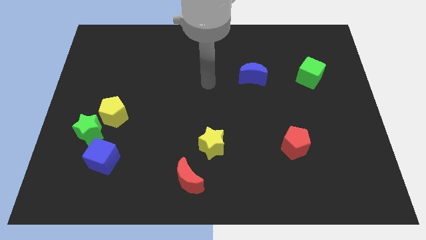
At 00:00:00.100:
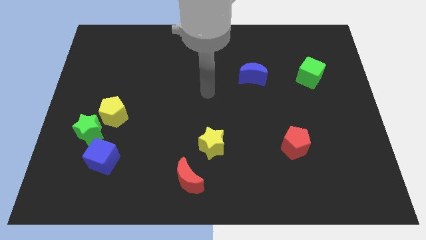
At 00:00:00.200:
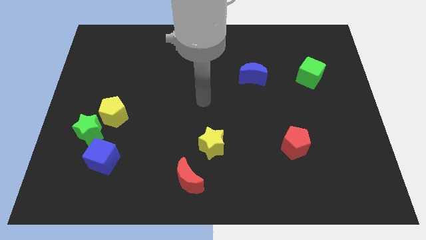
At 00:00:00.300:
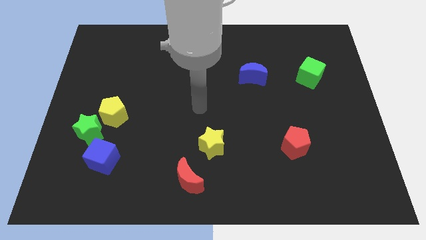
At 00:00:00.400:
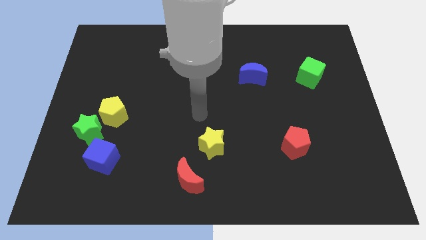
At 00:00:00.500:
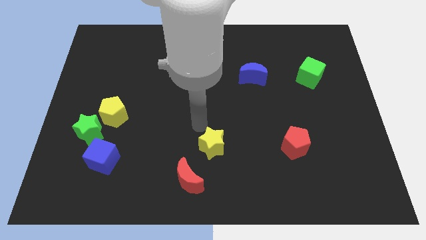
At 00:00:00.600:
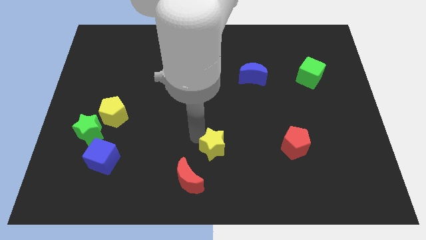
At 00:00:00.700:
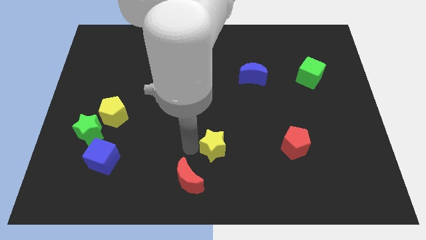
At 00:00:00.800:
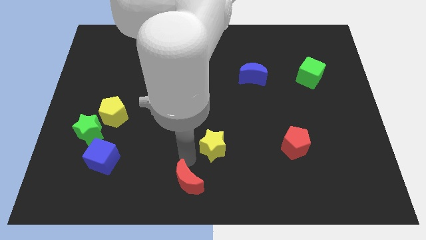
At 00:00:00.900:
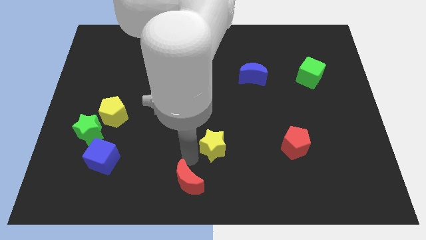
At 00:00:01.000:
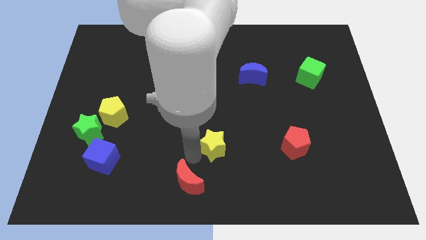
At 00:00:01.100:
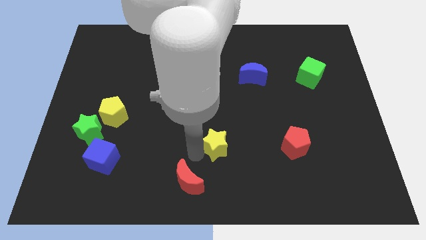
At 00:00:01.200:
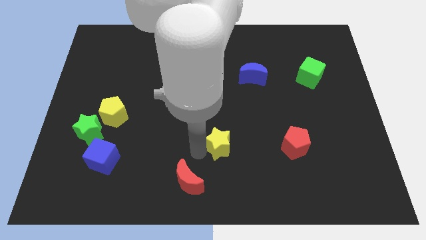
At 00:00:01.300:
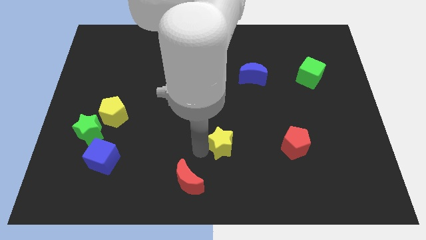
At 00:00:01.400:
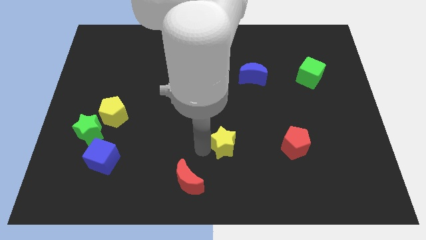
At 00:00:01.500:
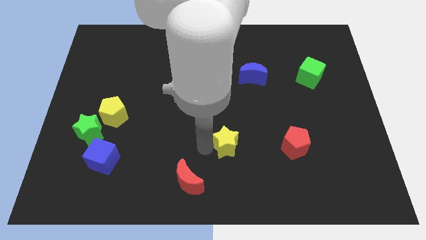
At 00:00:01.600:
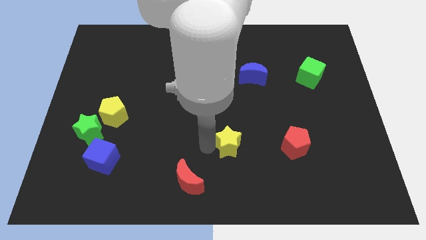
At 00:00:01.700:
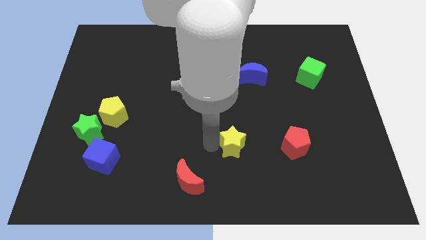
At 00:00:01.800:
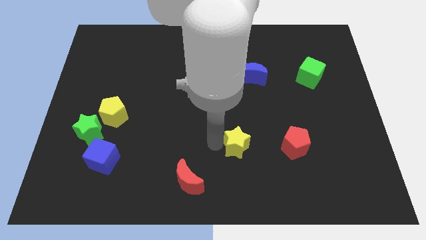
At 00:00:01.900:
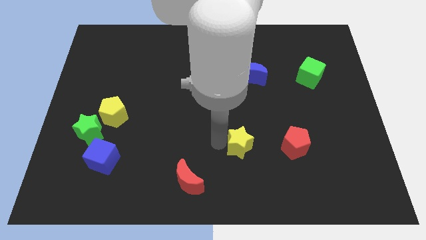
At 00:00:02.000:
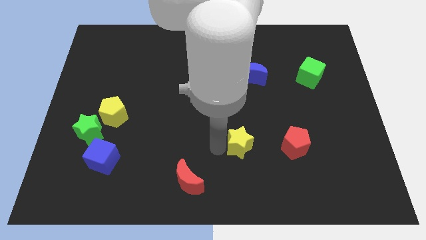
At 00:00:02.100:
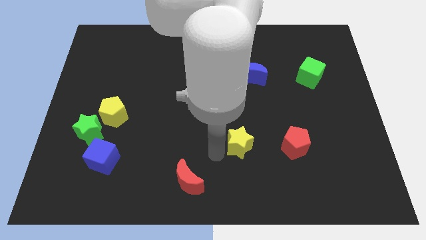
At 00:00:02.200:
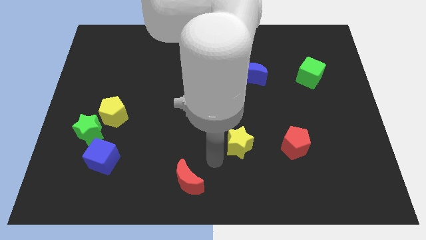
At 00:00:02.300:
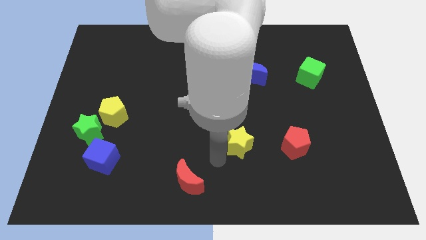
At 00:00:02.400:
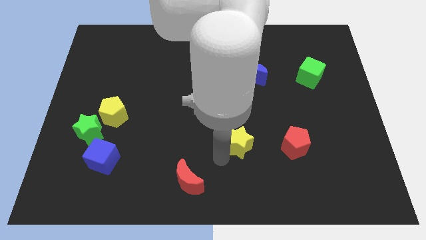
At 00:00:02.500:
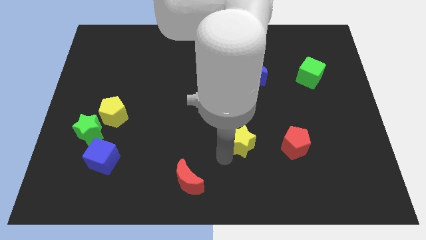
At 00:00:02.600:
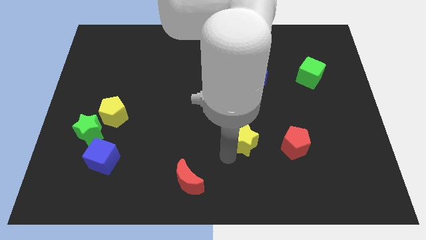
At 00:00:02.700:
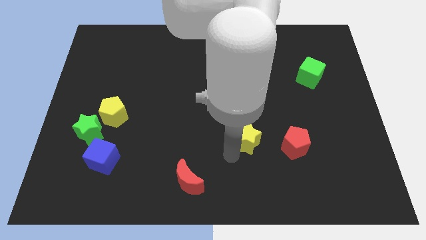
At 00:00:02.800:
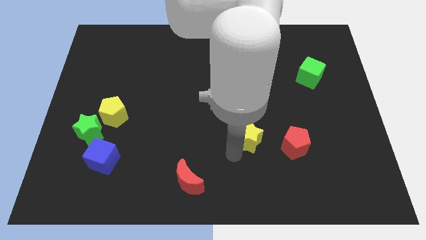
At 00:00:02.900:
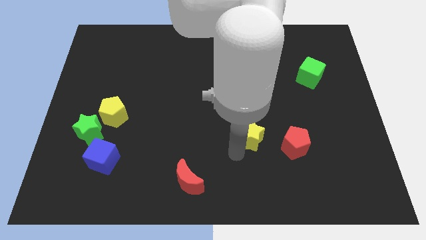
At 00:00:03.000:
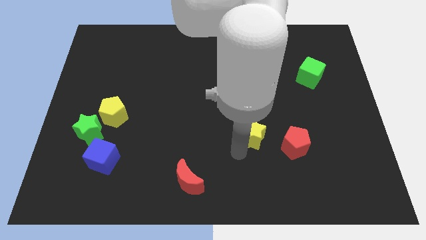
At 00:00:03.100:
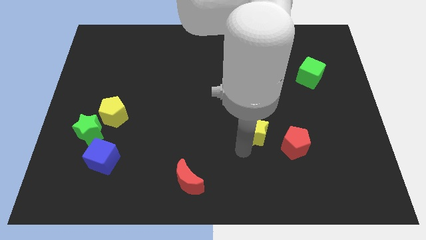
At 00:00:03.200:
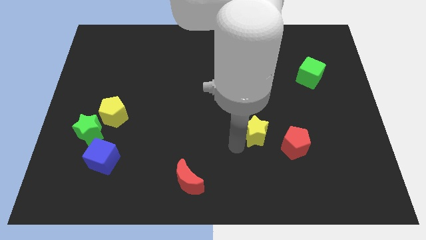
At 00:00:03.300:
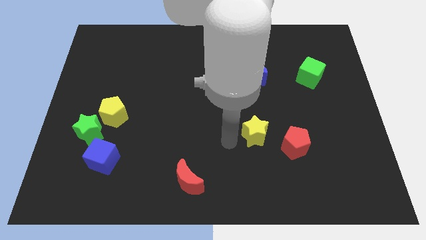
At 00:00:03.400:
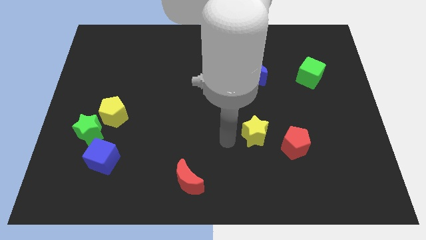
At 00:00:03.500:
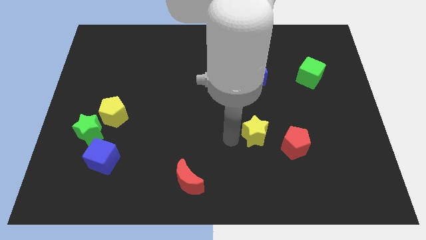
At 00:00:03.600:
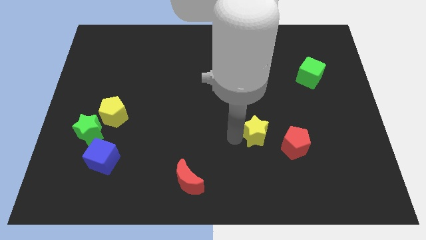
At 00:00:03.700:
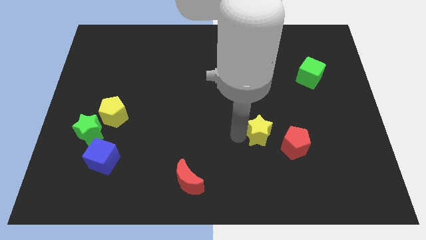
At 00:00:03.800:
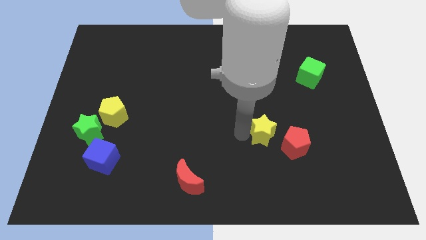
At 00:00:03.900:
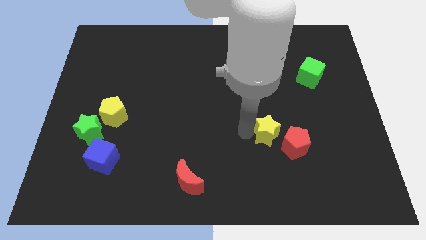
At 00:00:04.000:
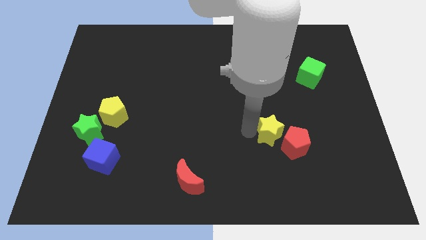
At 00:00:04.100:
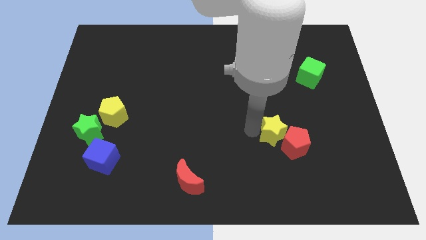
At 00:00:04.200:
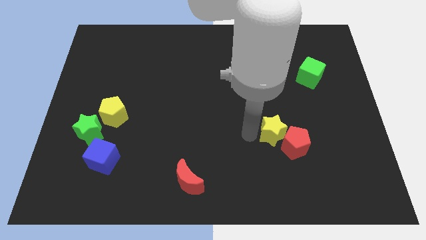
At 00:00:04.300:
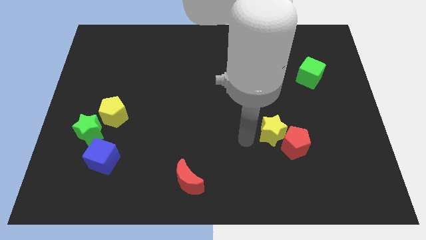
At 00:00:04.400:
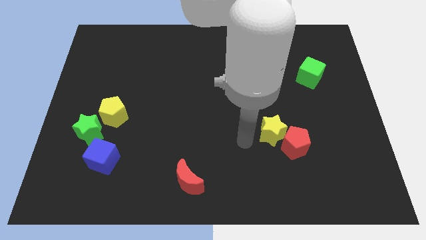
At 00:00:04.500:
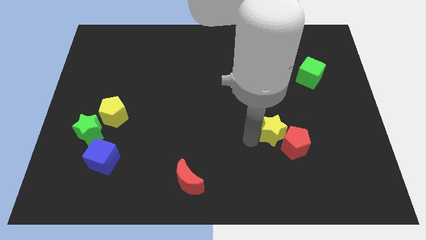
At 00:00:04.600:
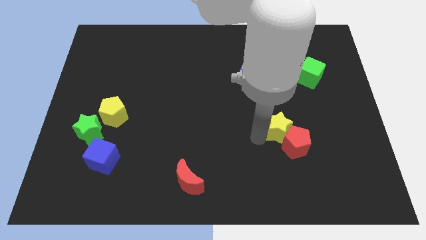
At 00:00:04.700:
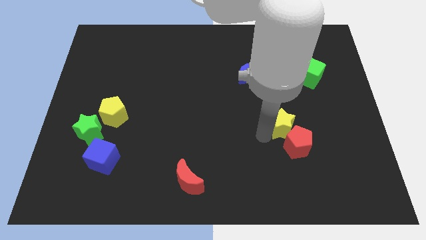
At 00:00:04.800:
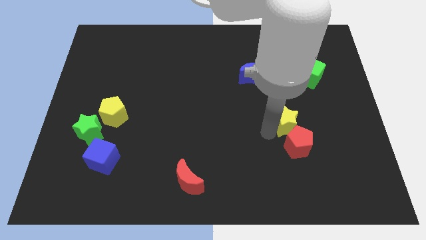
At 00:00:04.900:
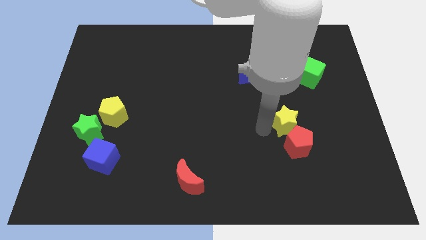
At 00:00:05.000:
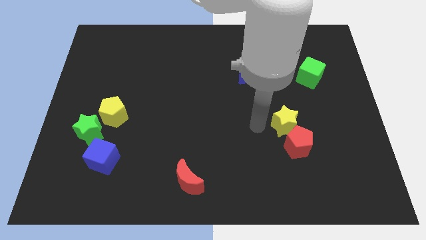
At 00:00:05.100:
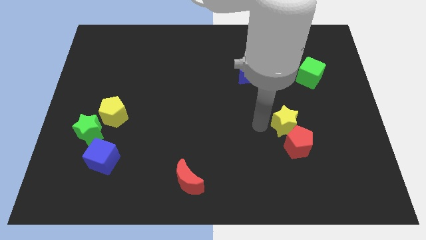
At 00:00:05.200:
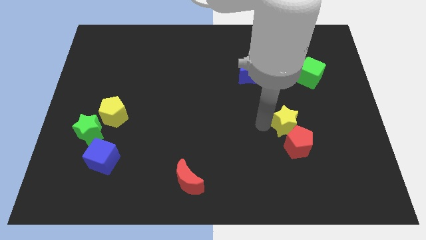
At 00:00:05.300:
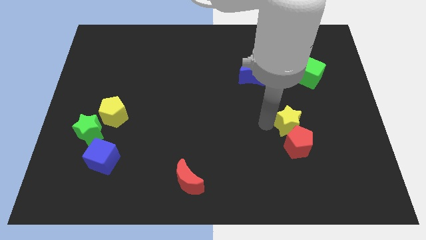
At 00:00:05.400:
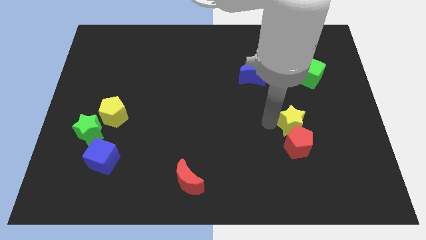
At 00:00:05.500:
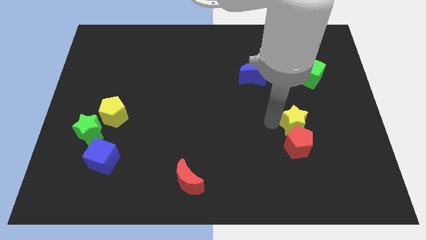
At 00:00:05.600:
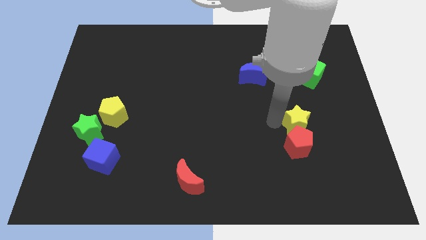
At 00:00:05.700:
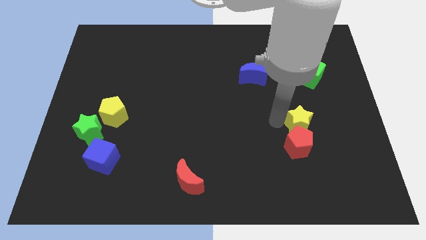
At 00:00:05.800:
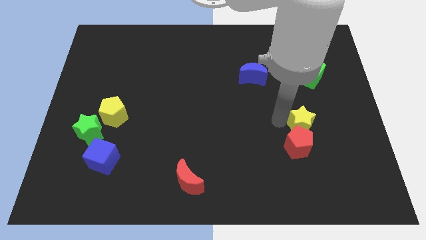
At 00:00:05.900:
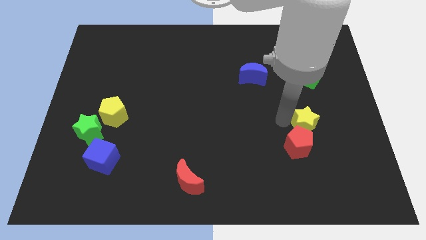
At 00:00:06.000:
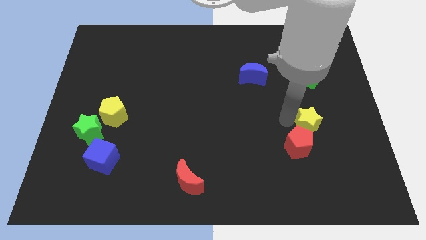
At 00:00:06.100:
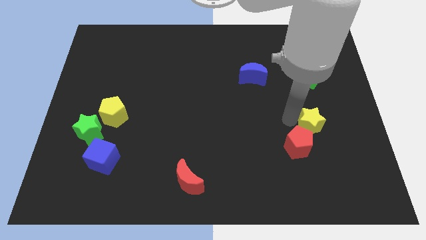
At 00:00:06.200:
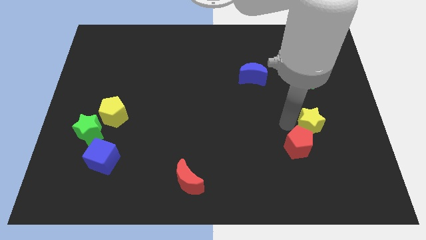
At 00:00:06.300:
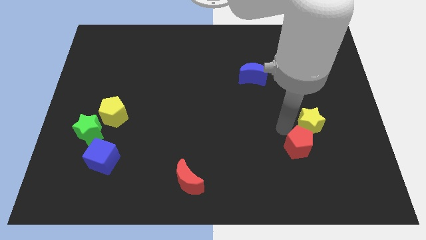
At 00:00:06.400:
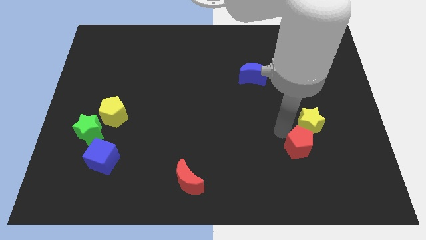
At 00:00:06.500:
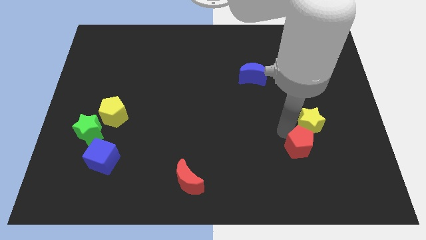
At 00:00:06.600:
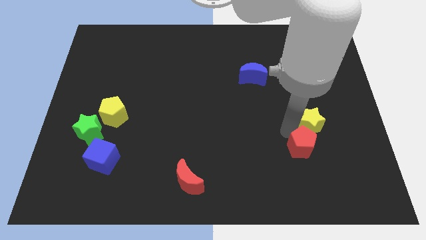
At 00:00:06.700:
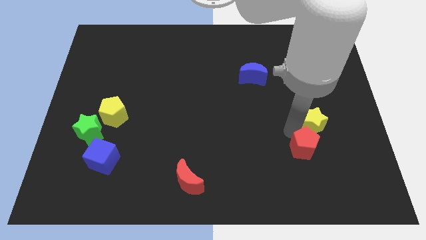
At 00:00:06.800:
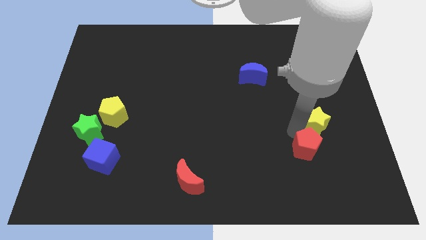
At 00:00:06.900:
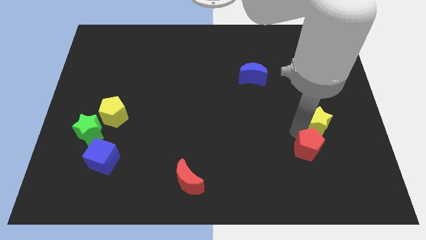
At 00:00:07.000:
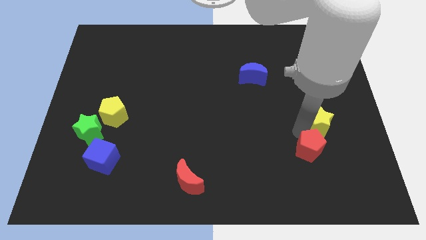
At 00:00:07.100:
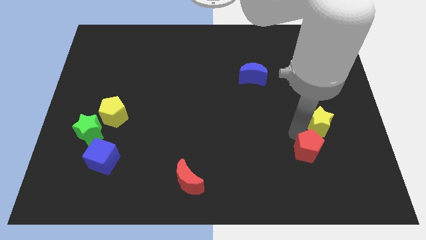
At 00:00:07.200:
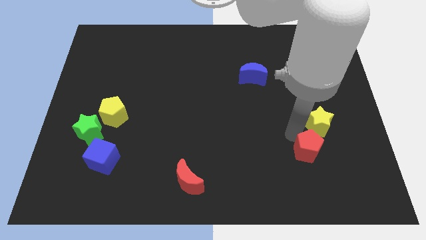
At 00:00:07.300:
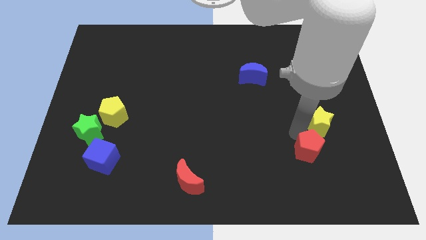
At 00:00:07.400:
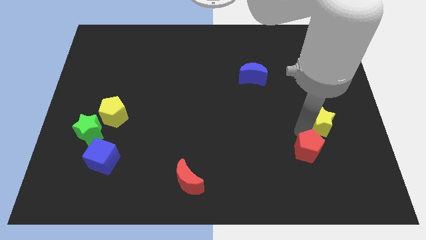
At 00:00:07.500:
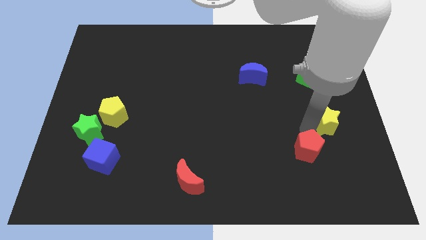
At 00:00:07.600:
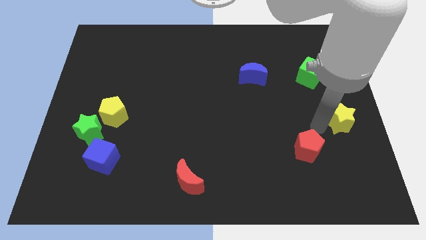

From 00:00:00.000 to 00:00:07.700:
put the yellow star to the right side of the board
